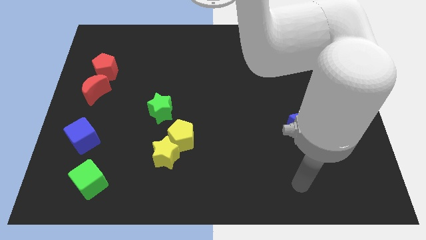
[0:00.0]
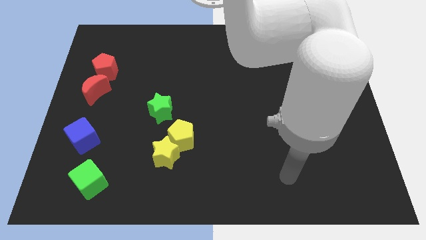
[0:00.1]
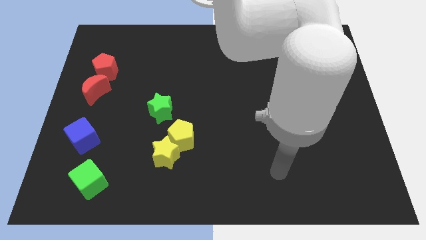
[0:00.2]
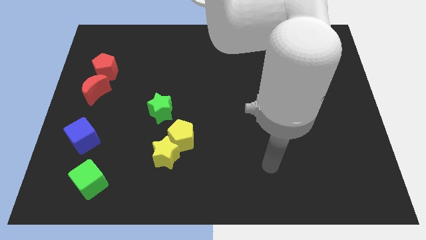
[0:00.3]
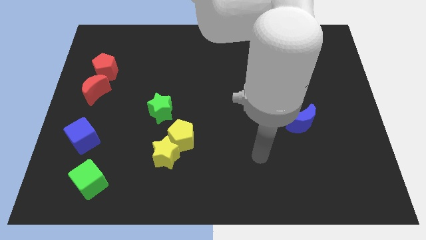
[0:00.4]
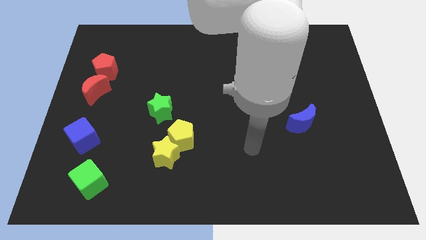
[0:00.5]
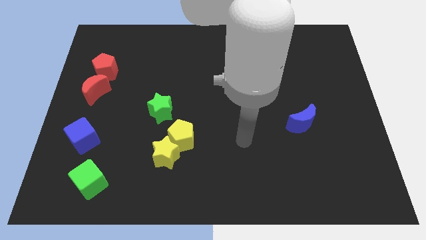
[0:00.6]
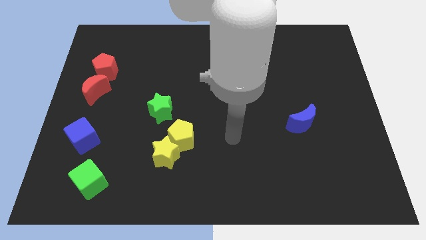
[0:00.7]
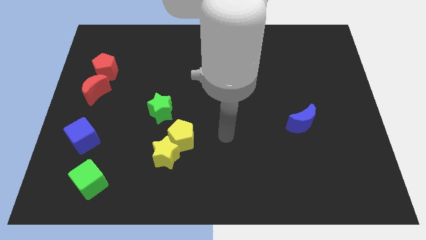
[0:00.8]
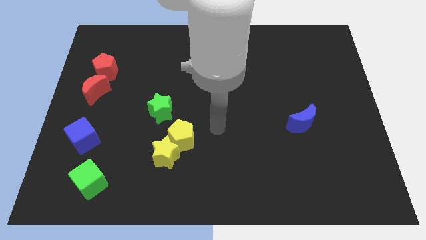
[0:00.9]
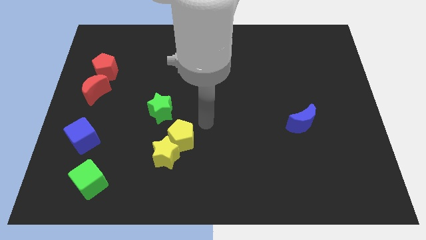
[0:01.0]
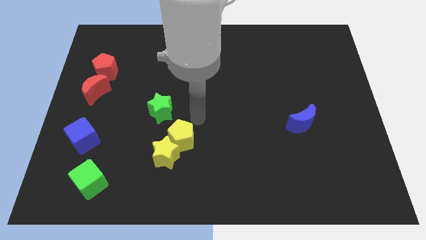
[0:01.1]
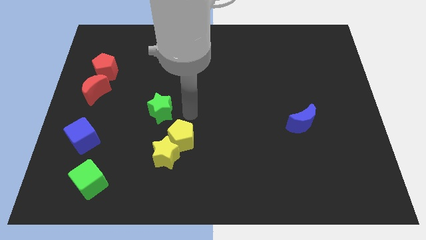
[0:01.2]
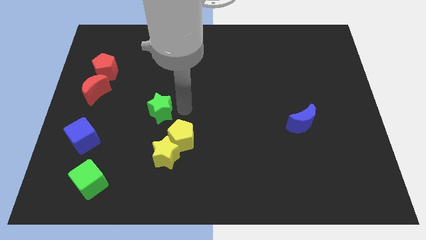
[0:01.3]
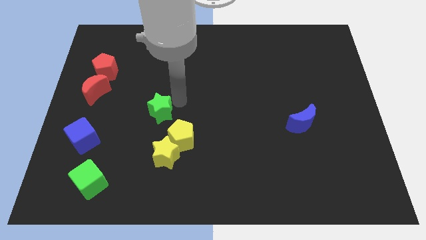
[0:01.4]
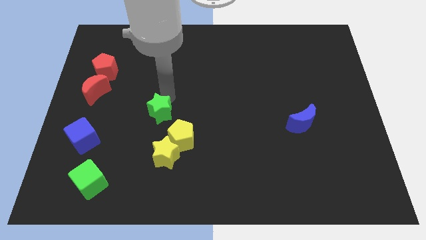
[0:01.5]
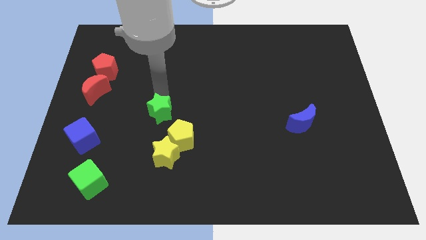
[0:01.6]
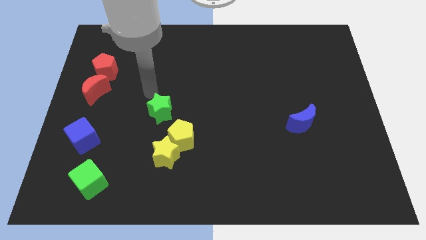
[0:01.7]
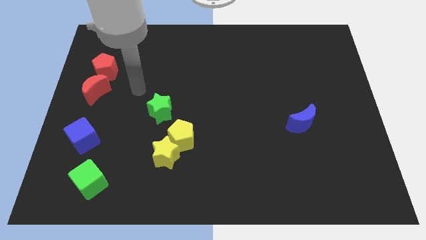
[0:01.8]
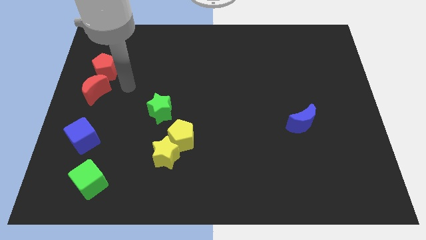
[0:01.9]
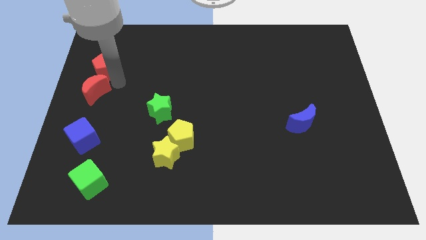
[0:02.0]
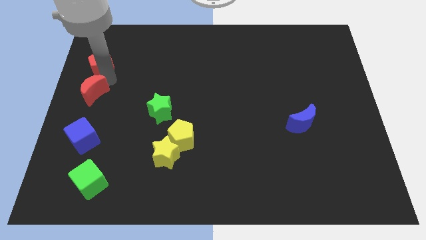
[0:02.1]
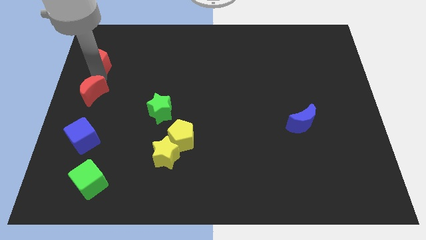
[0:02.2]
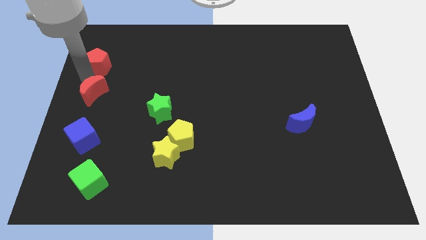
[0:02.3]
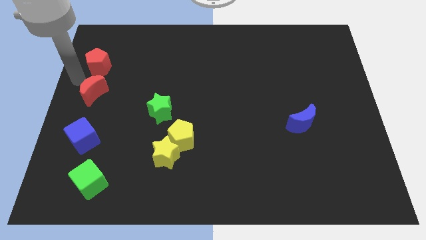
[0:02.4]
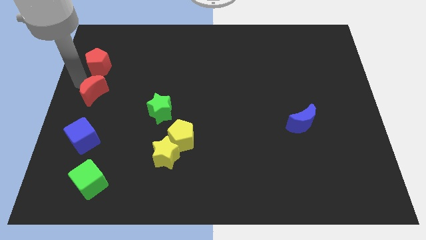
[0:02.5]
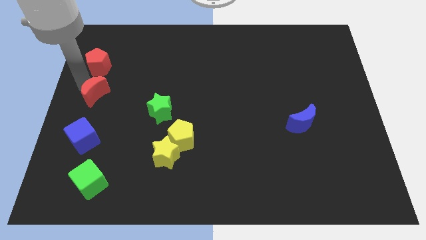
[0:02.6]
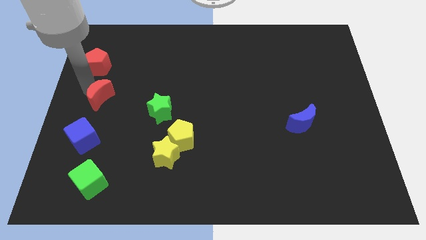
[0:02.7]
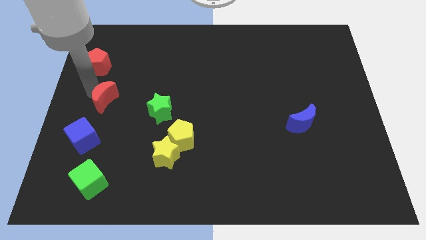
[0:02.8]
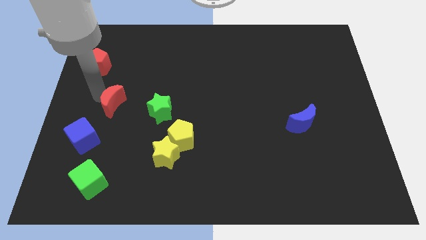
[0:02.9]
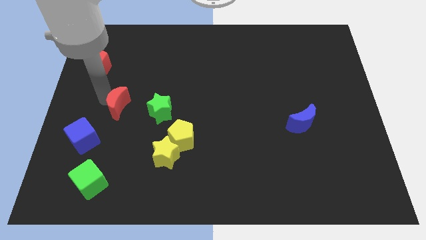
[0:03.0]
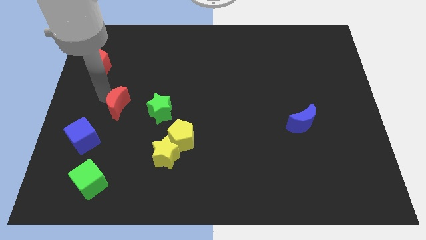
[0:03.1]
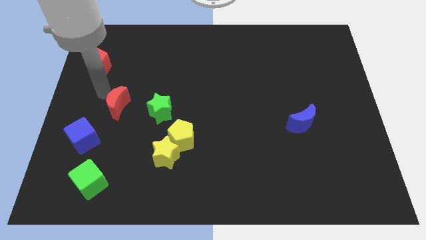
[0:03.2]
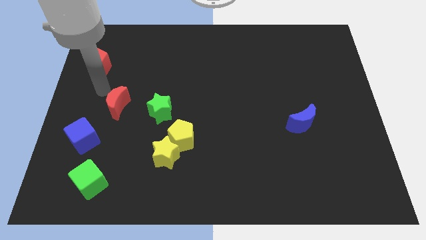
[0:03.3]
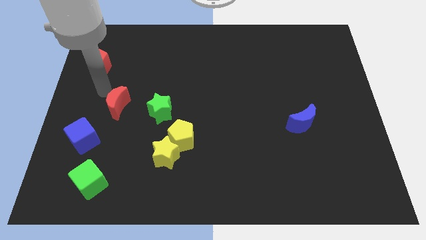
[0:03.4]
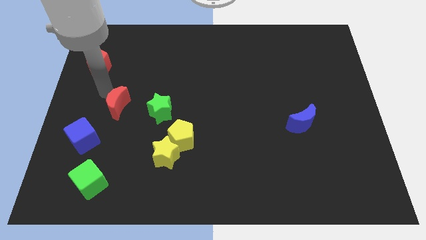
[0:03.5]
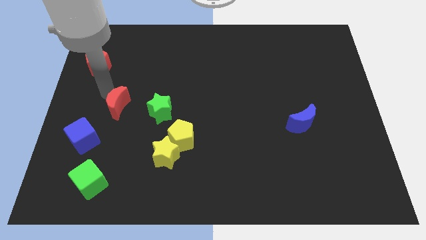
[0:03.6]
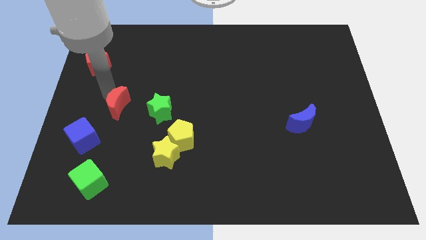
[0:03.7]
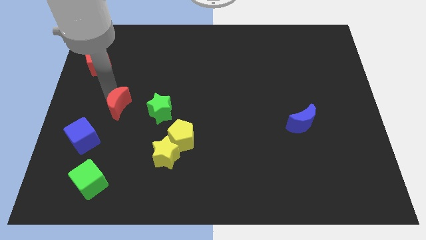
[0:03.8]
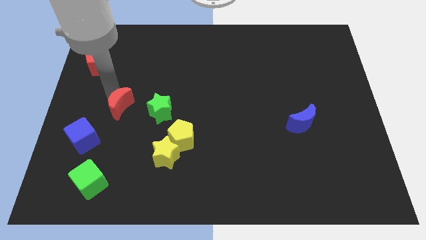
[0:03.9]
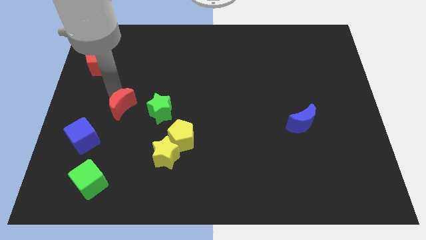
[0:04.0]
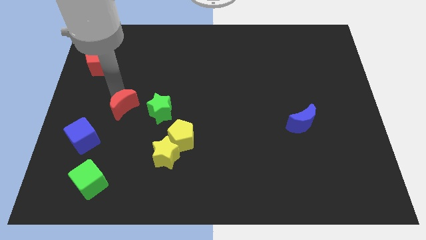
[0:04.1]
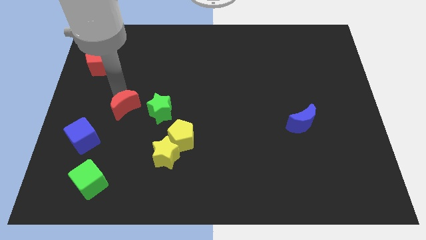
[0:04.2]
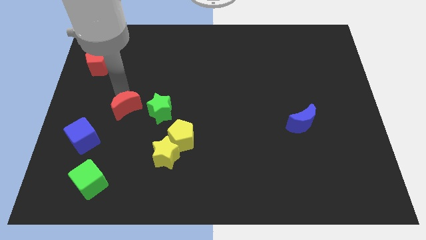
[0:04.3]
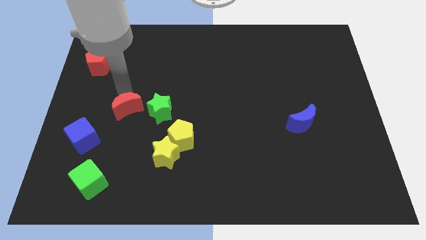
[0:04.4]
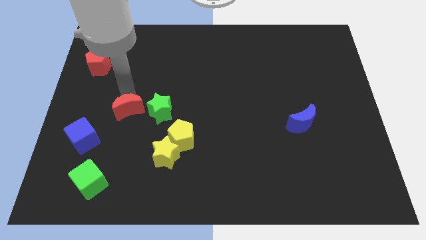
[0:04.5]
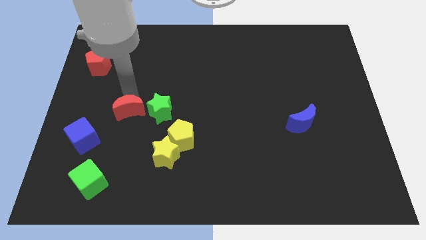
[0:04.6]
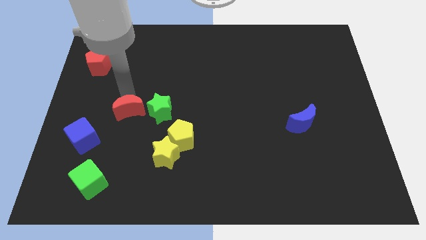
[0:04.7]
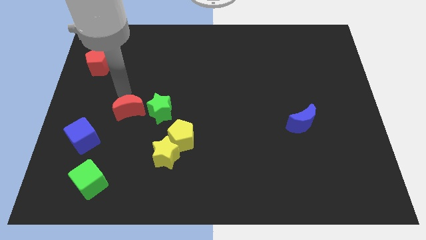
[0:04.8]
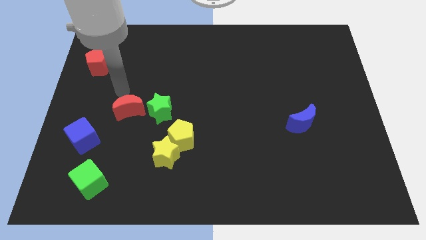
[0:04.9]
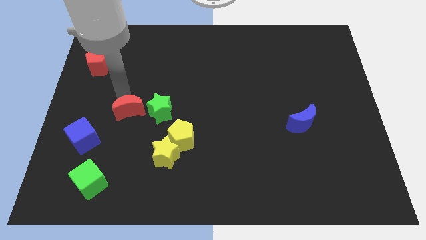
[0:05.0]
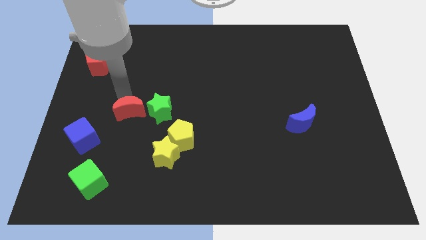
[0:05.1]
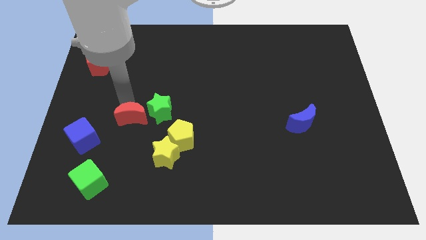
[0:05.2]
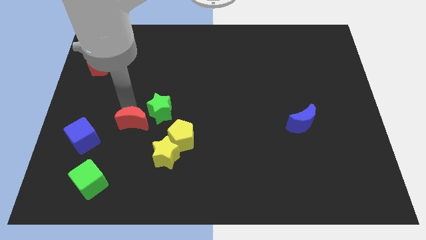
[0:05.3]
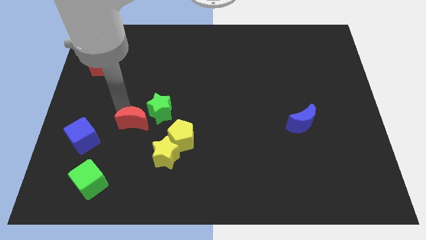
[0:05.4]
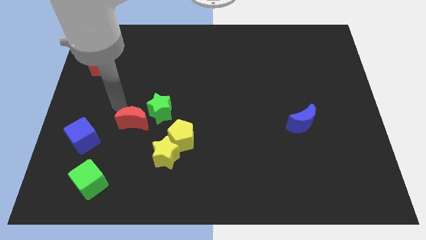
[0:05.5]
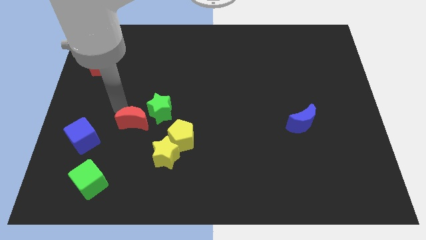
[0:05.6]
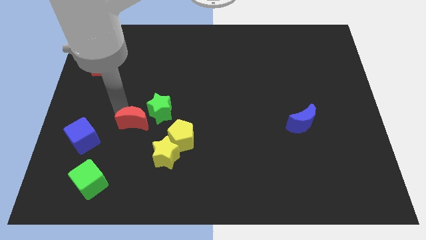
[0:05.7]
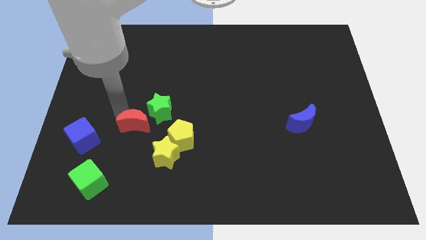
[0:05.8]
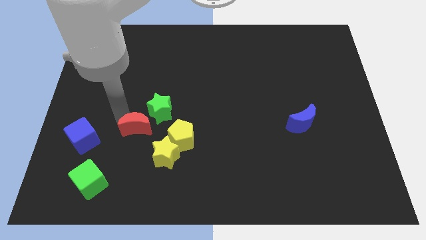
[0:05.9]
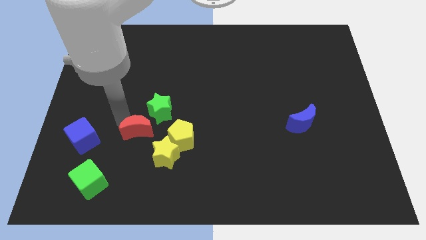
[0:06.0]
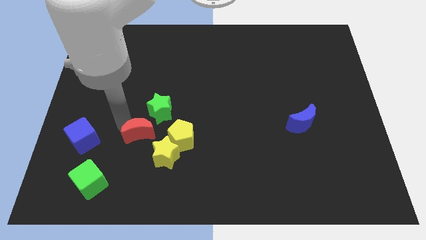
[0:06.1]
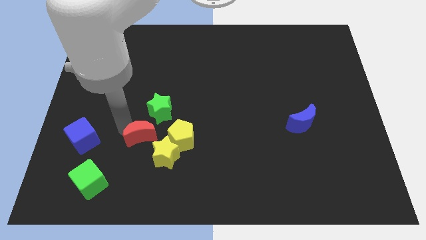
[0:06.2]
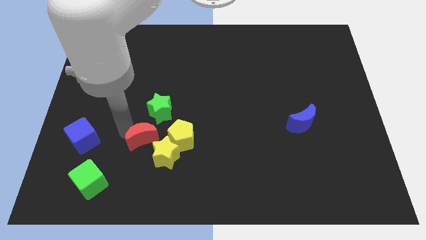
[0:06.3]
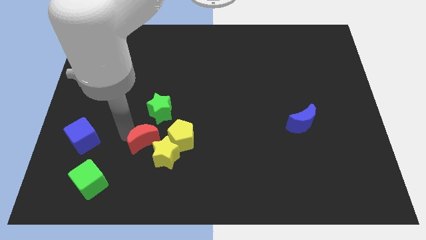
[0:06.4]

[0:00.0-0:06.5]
push the red moon next to the yellow star

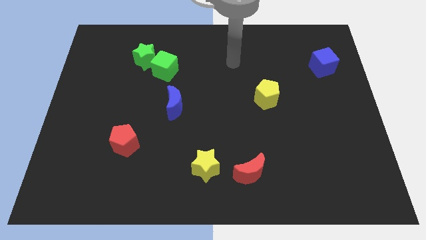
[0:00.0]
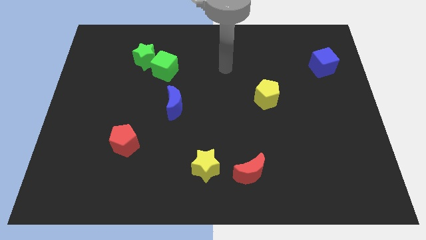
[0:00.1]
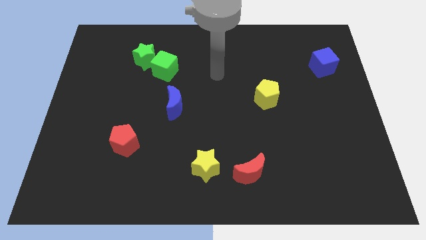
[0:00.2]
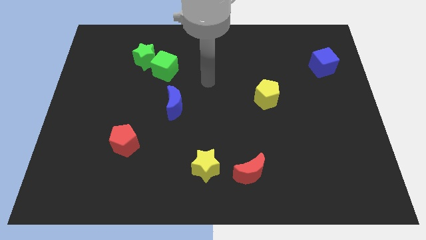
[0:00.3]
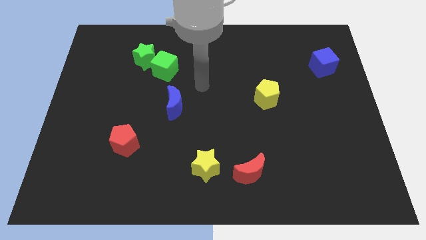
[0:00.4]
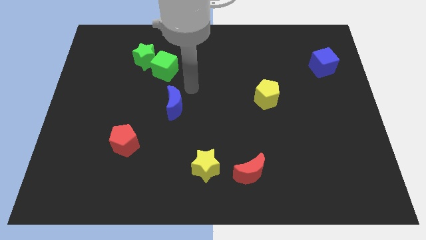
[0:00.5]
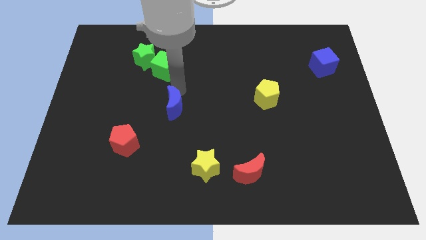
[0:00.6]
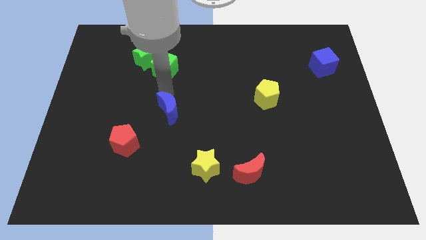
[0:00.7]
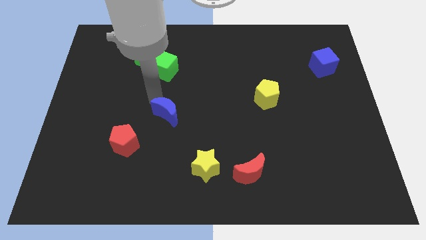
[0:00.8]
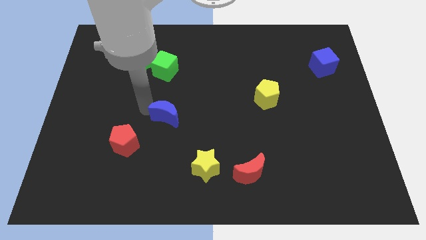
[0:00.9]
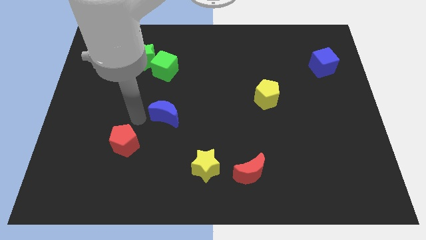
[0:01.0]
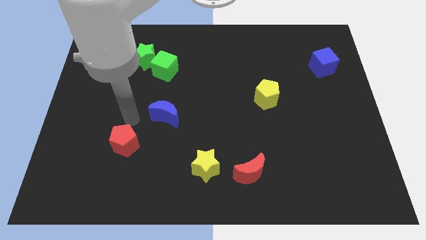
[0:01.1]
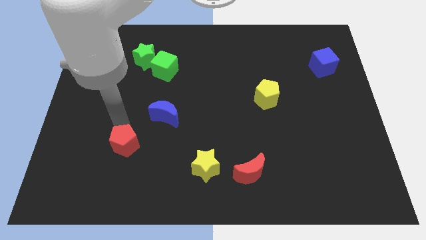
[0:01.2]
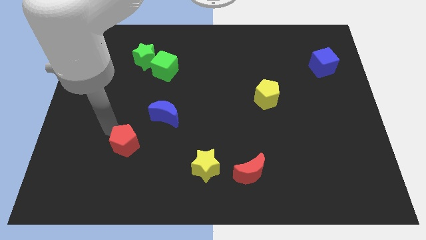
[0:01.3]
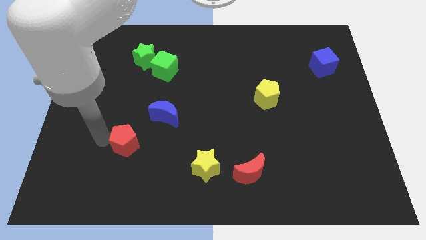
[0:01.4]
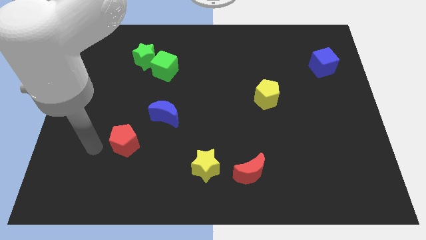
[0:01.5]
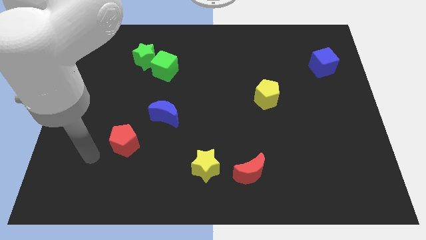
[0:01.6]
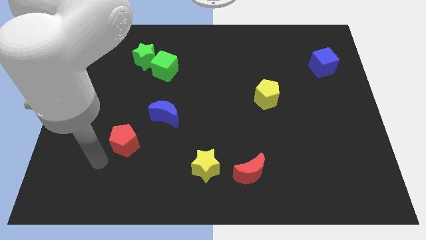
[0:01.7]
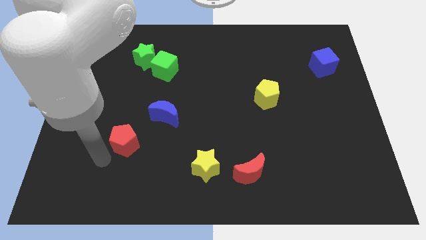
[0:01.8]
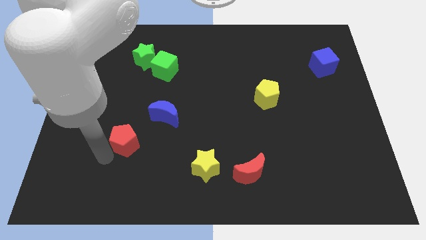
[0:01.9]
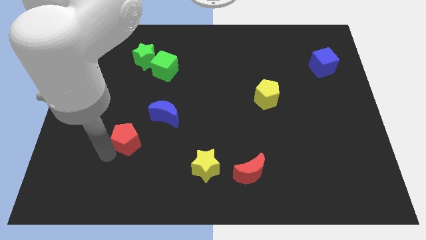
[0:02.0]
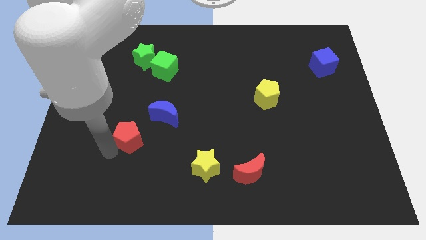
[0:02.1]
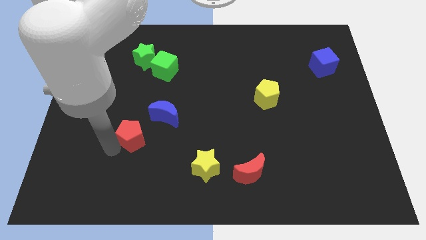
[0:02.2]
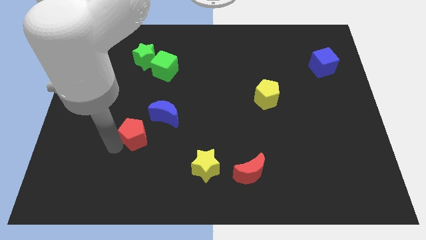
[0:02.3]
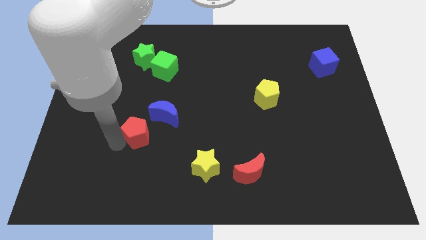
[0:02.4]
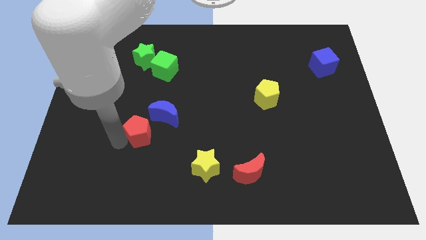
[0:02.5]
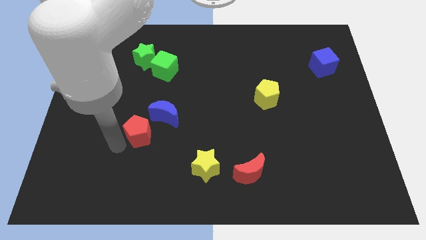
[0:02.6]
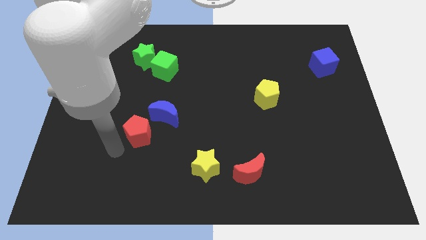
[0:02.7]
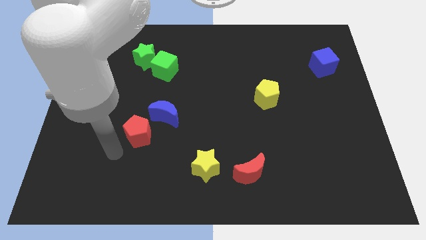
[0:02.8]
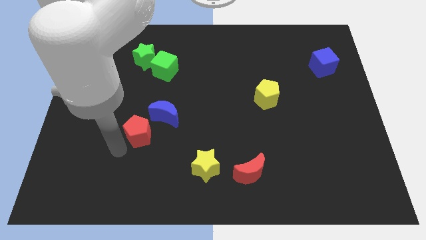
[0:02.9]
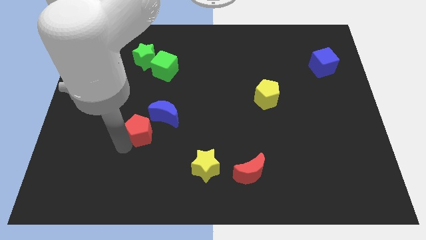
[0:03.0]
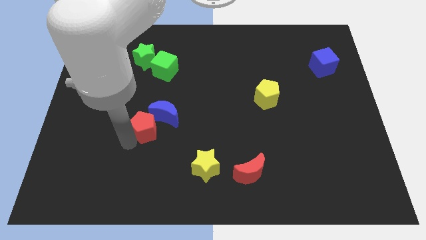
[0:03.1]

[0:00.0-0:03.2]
put the red pentagon next to the blue moon
